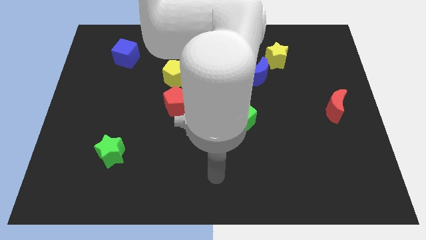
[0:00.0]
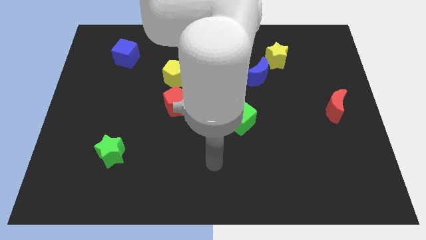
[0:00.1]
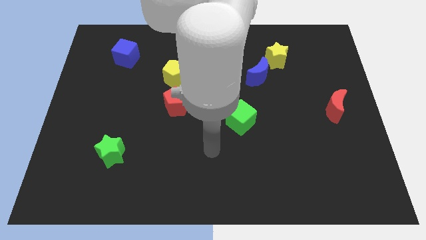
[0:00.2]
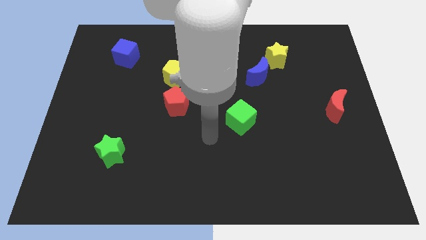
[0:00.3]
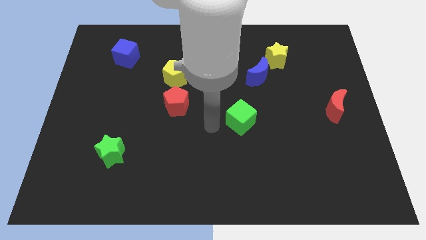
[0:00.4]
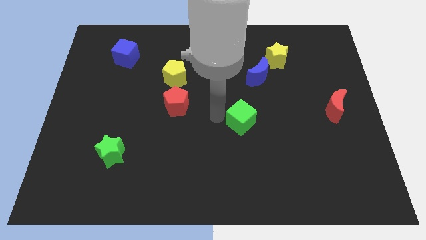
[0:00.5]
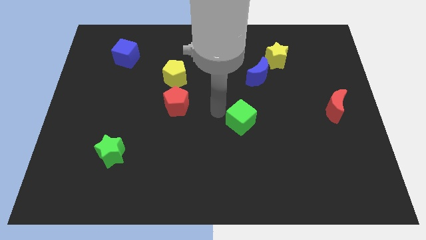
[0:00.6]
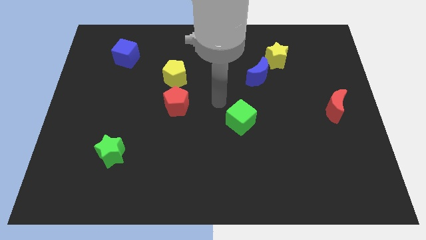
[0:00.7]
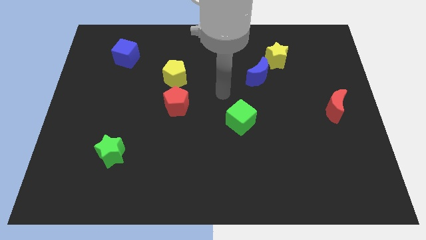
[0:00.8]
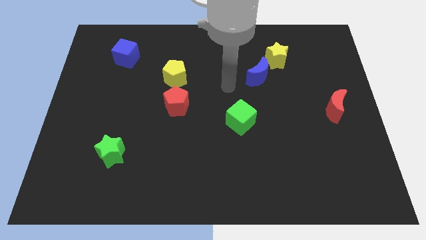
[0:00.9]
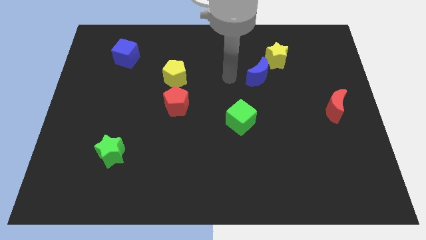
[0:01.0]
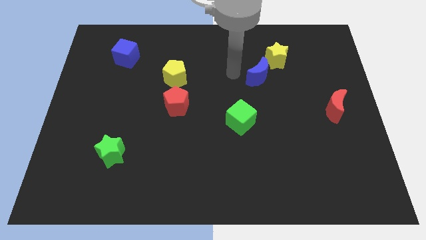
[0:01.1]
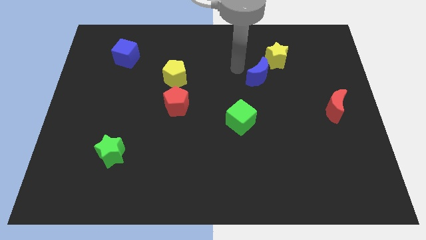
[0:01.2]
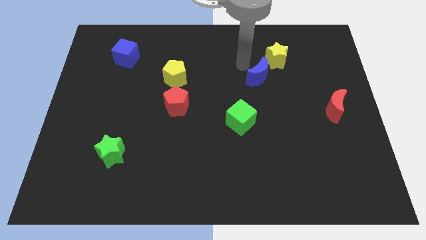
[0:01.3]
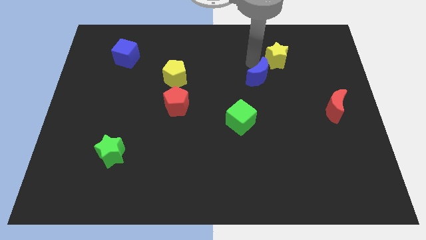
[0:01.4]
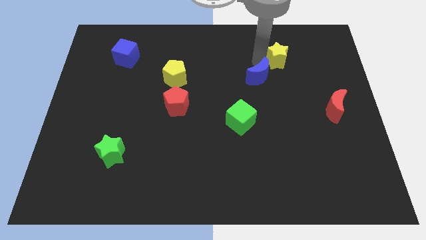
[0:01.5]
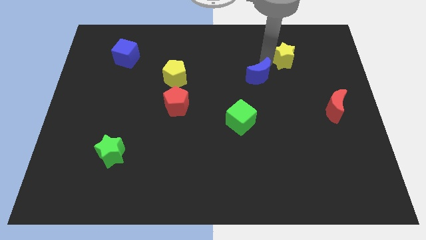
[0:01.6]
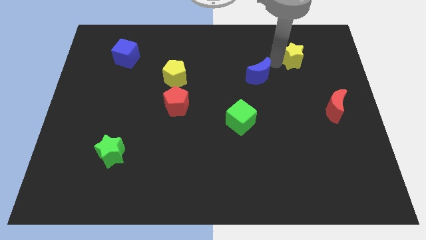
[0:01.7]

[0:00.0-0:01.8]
pull the blue moon apart from the yellow star

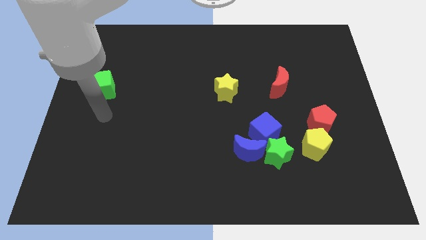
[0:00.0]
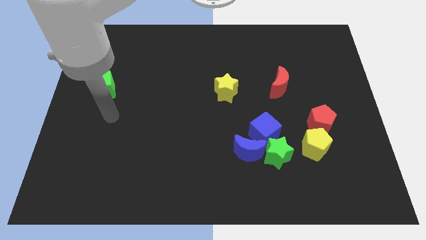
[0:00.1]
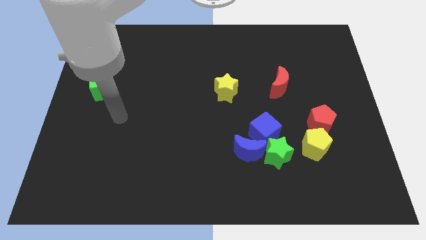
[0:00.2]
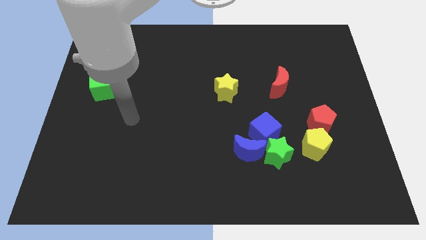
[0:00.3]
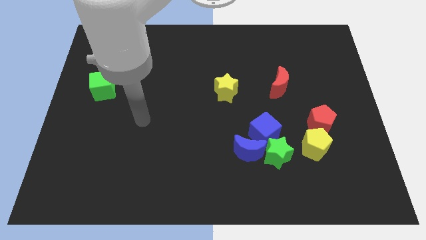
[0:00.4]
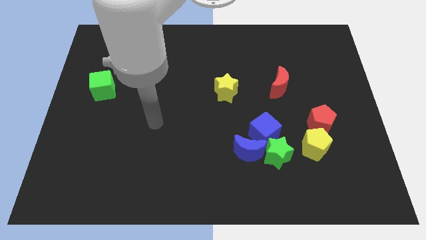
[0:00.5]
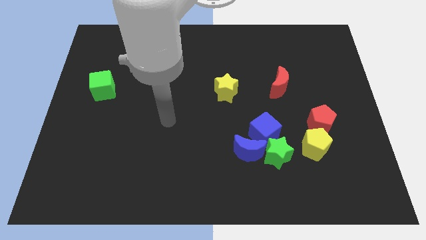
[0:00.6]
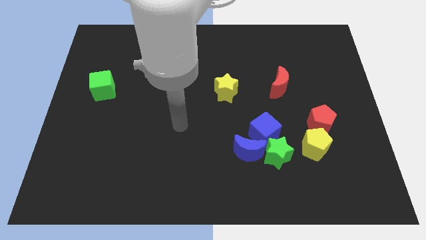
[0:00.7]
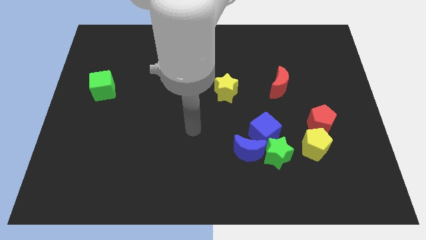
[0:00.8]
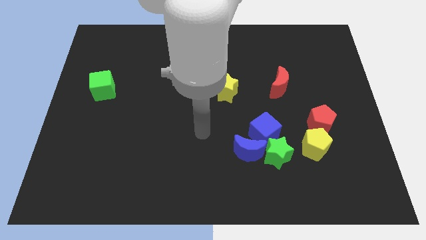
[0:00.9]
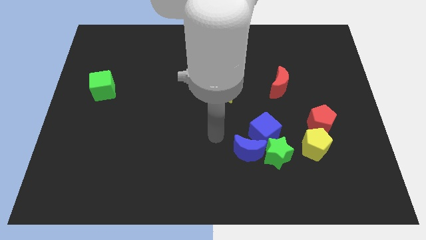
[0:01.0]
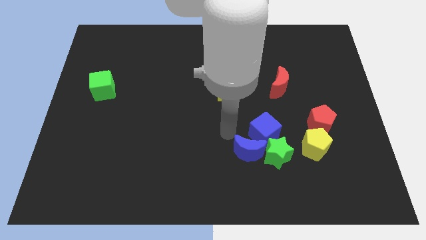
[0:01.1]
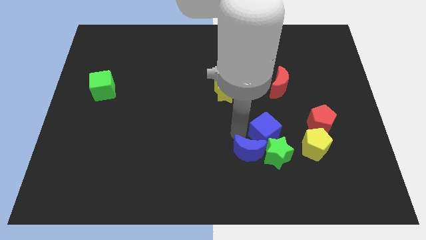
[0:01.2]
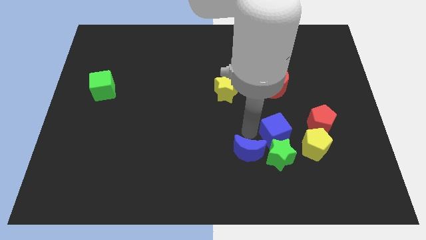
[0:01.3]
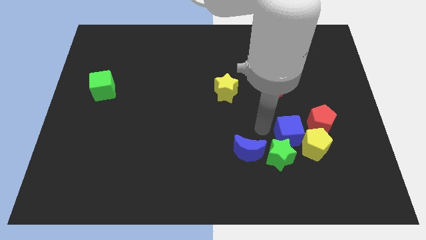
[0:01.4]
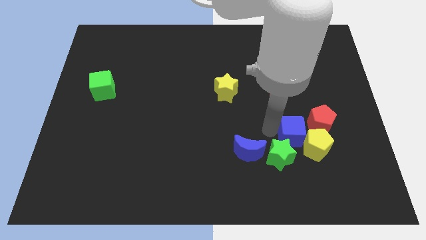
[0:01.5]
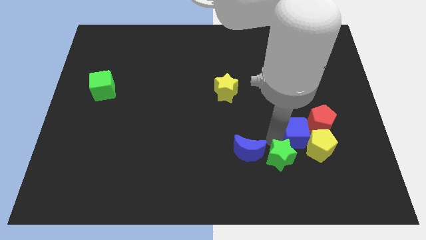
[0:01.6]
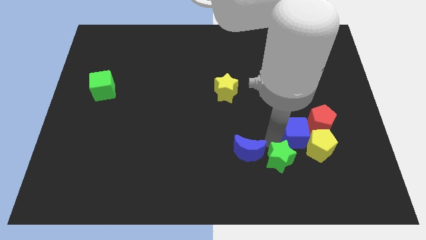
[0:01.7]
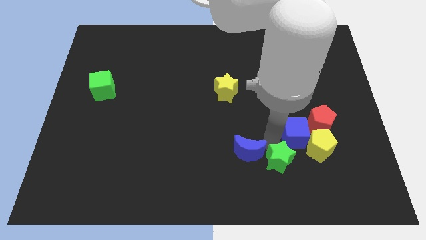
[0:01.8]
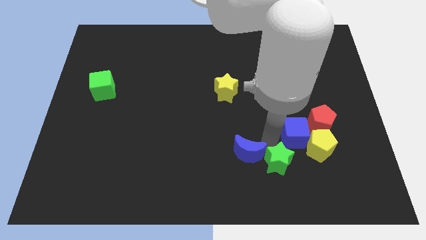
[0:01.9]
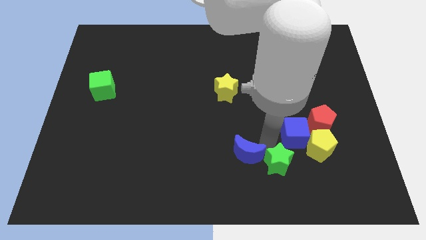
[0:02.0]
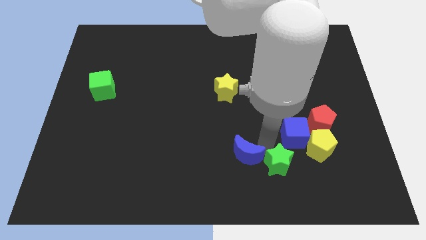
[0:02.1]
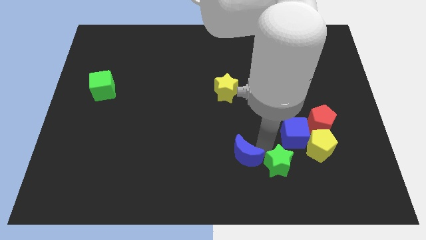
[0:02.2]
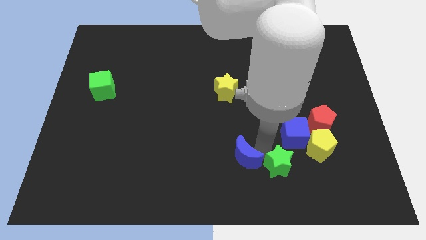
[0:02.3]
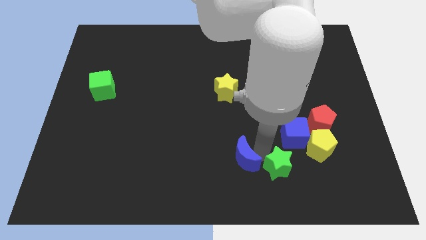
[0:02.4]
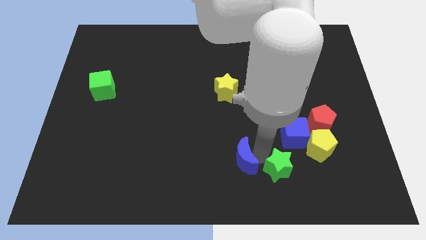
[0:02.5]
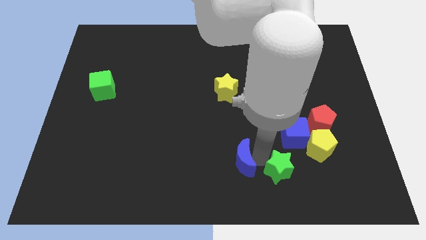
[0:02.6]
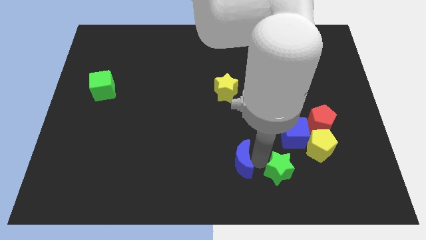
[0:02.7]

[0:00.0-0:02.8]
move the blue moon away from the green star and blue cube

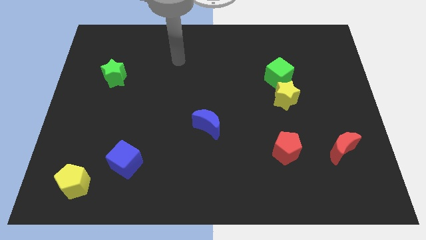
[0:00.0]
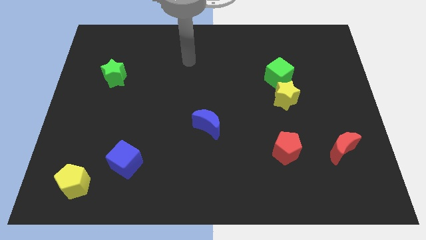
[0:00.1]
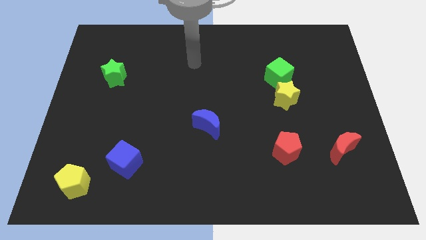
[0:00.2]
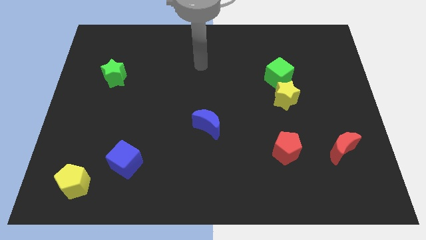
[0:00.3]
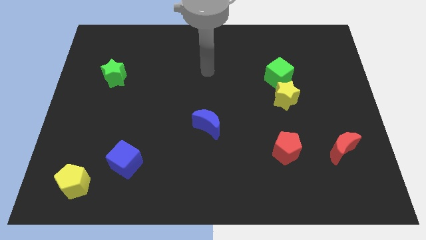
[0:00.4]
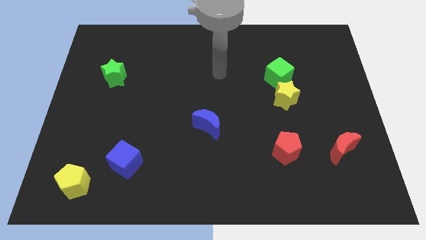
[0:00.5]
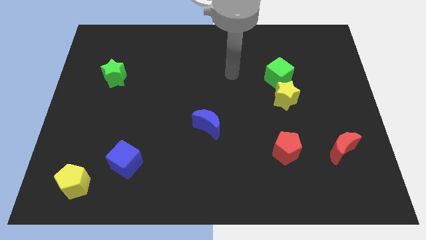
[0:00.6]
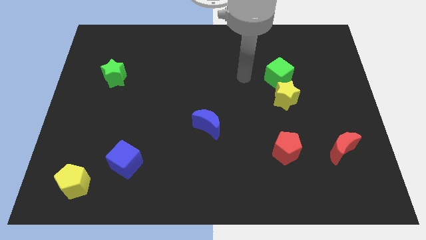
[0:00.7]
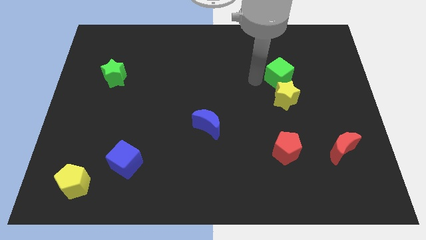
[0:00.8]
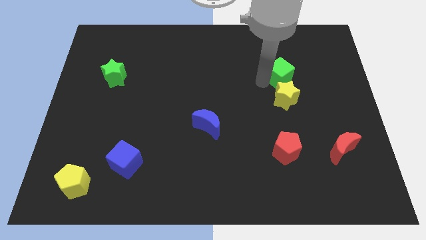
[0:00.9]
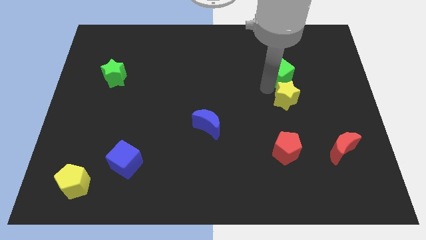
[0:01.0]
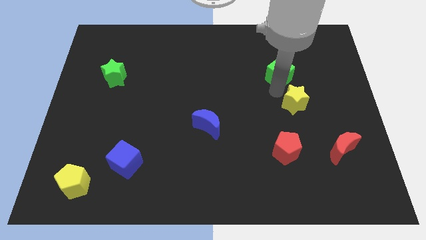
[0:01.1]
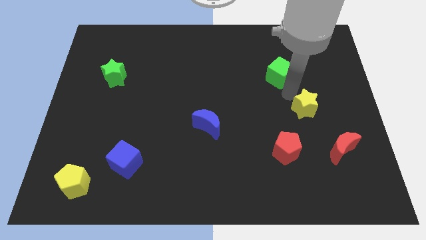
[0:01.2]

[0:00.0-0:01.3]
separate the green cube from the yellow star

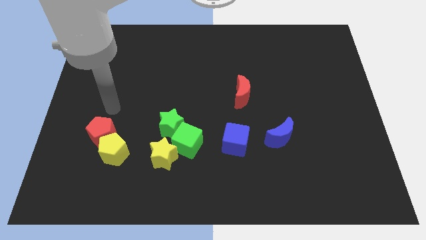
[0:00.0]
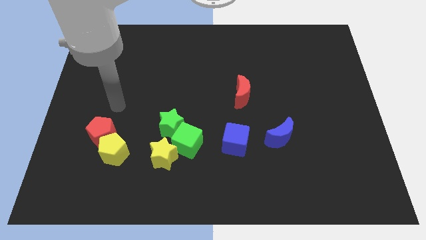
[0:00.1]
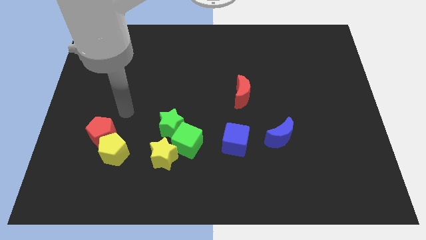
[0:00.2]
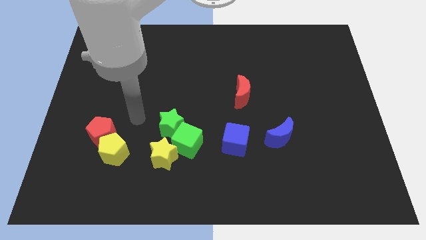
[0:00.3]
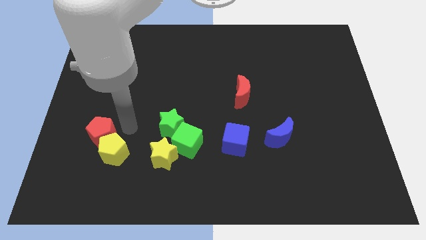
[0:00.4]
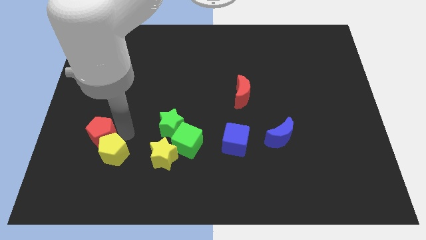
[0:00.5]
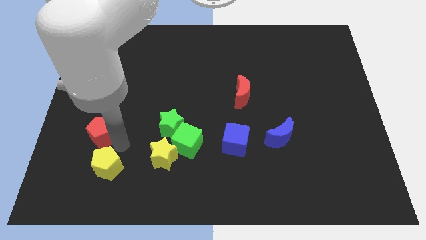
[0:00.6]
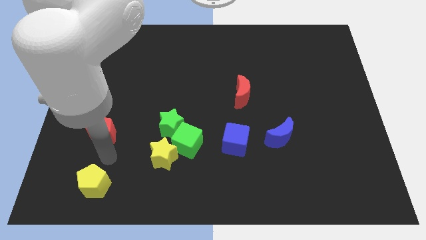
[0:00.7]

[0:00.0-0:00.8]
move the red pentagon away from the yellow pentagon

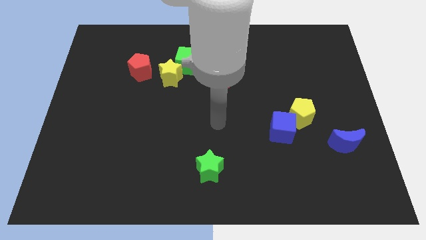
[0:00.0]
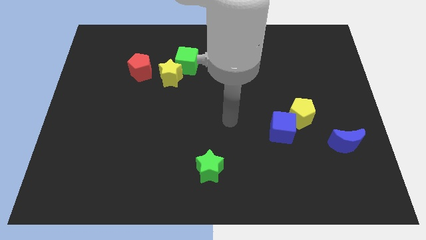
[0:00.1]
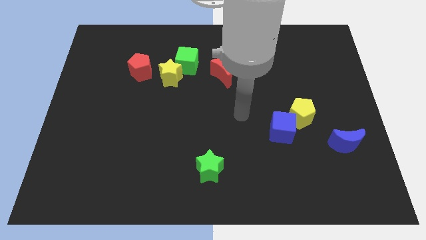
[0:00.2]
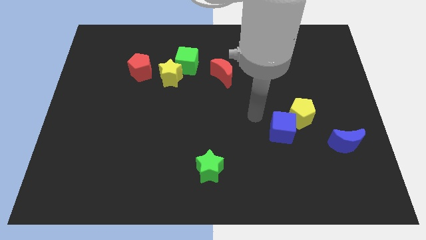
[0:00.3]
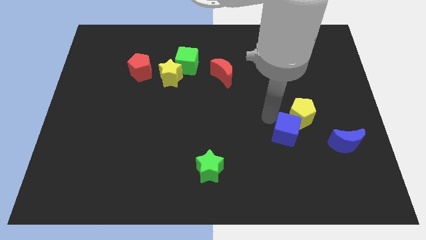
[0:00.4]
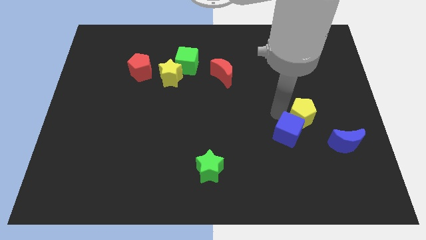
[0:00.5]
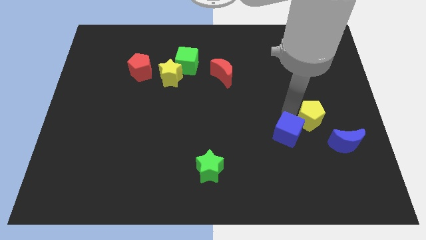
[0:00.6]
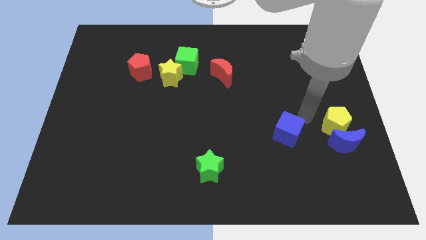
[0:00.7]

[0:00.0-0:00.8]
move the blue cube away from the yellow pentagon

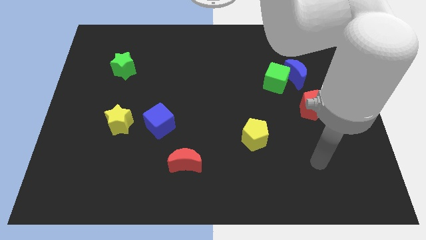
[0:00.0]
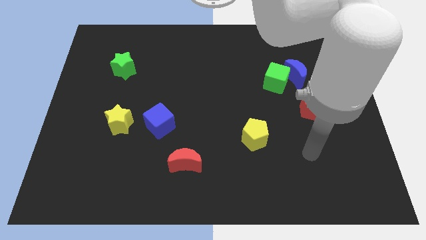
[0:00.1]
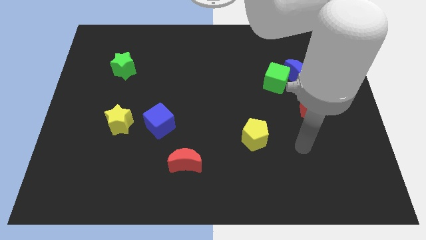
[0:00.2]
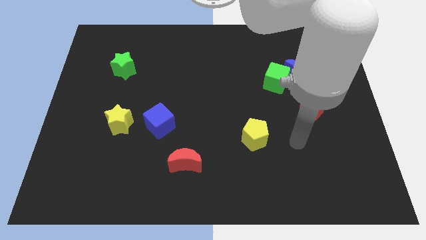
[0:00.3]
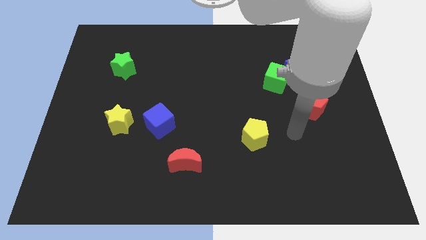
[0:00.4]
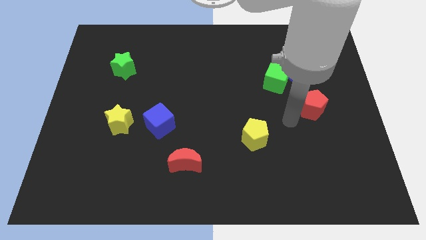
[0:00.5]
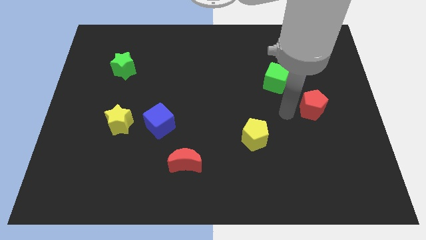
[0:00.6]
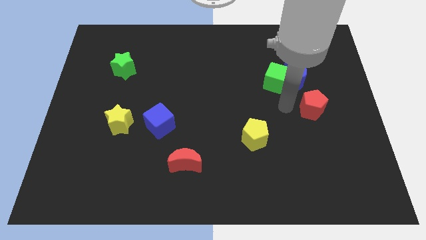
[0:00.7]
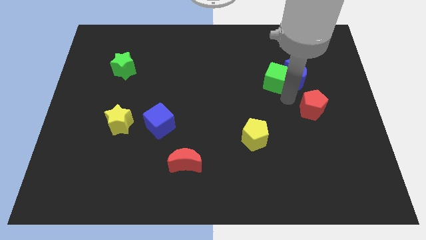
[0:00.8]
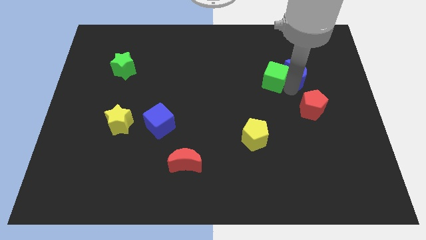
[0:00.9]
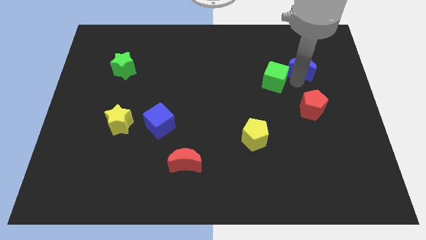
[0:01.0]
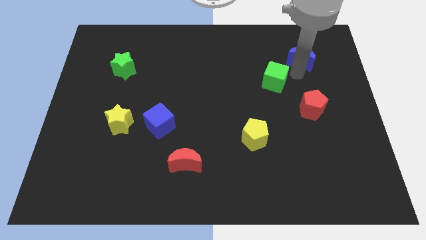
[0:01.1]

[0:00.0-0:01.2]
separate the green cube from the blue moon

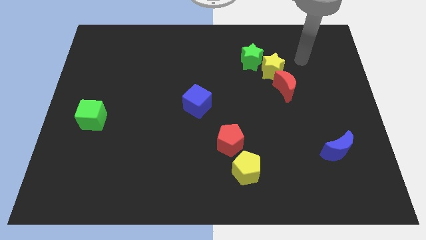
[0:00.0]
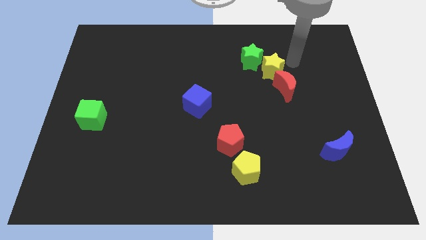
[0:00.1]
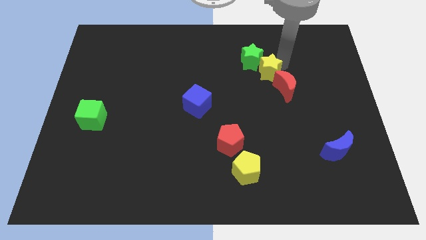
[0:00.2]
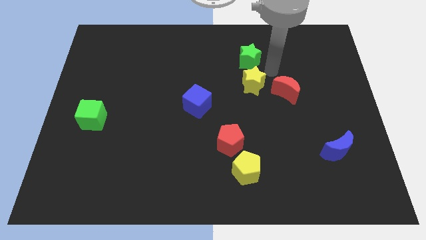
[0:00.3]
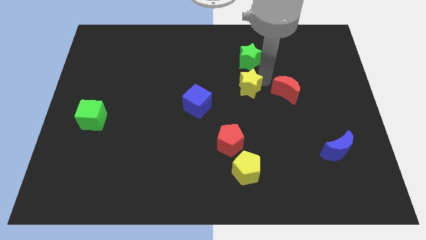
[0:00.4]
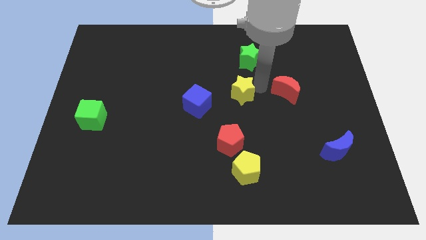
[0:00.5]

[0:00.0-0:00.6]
separate the red moon from the yellow star
